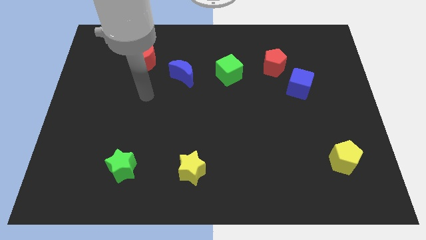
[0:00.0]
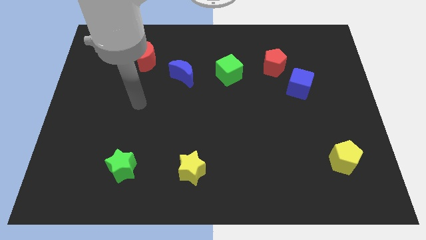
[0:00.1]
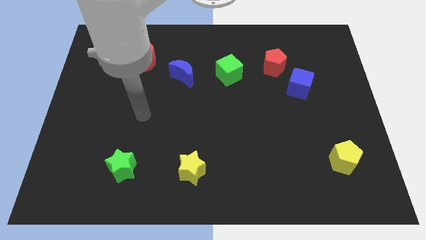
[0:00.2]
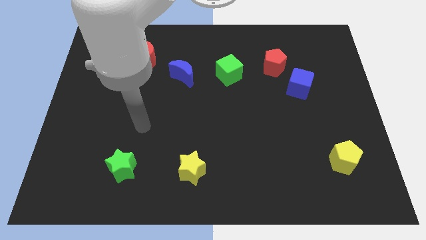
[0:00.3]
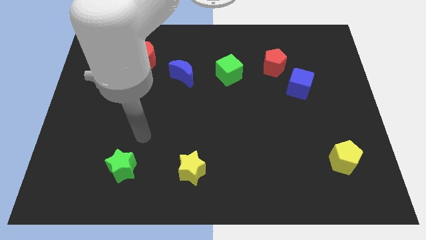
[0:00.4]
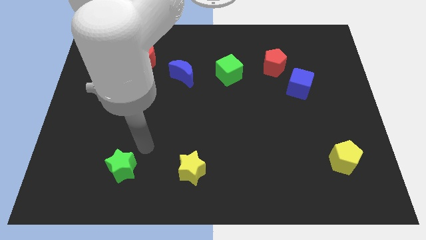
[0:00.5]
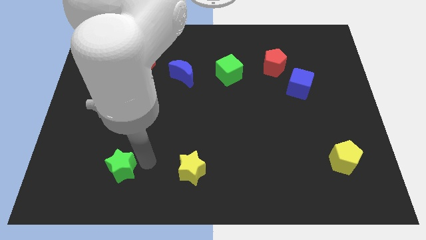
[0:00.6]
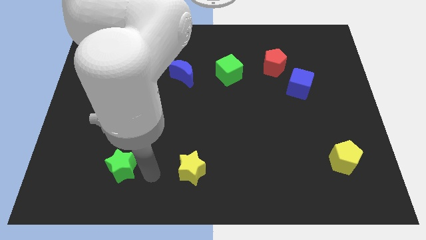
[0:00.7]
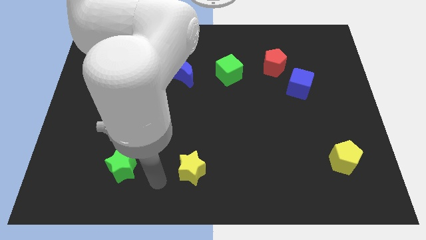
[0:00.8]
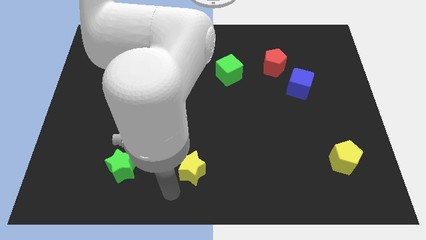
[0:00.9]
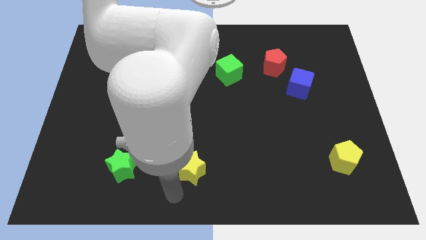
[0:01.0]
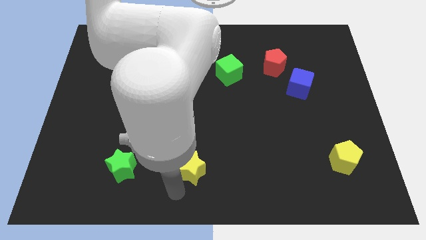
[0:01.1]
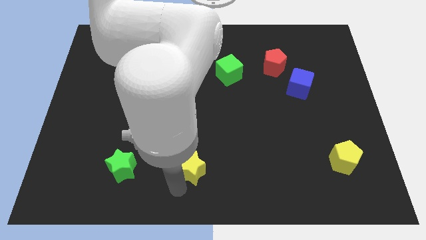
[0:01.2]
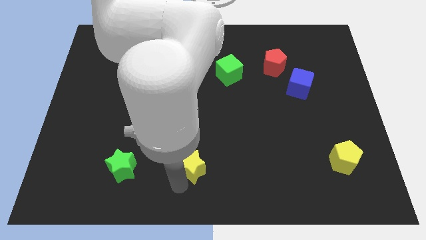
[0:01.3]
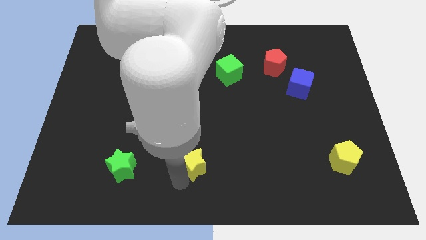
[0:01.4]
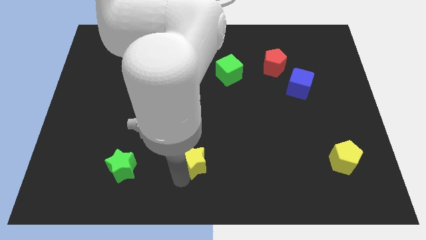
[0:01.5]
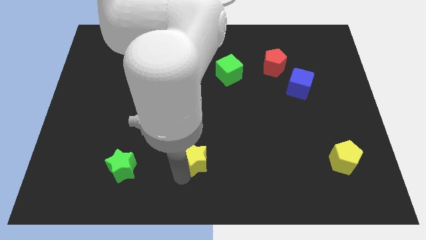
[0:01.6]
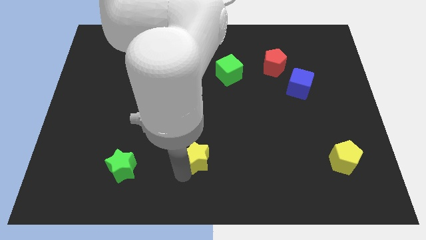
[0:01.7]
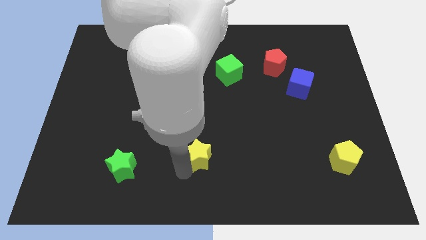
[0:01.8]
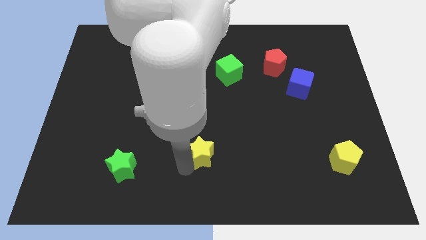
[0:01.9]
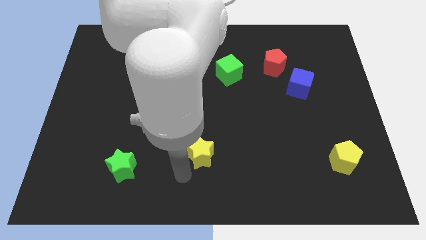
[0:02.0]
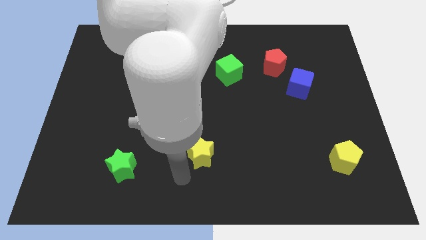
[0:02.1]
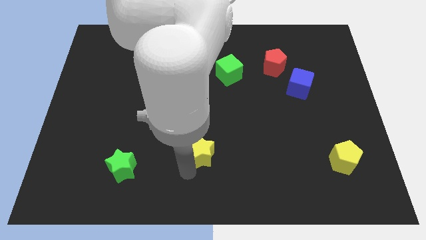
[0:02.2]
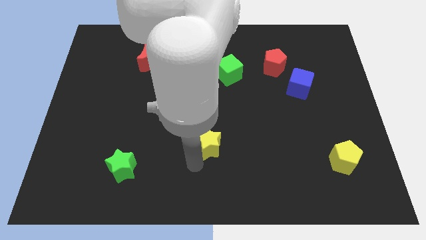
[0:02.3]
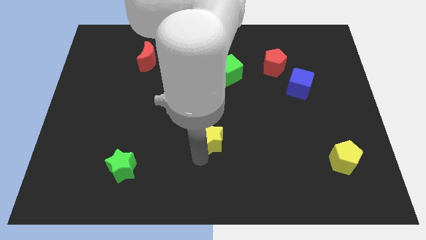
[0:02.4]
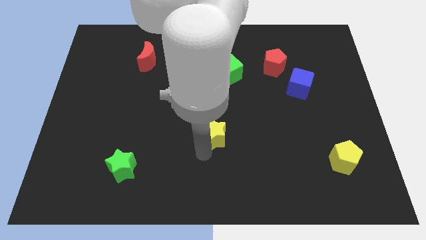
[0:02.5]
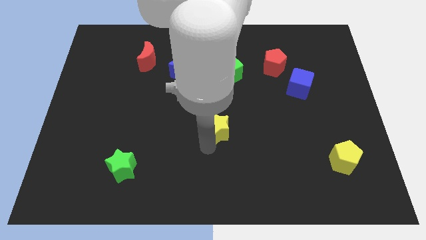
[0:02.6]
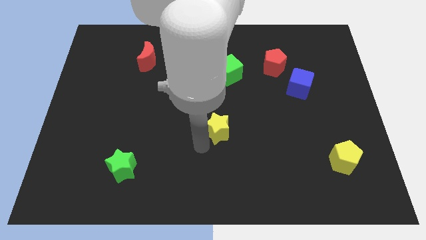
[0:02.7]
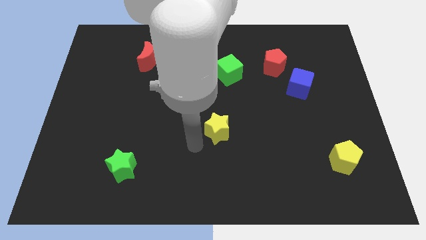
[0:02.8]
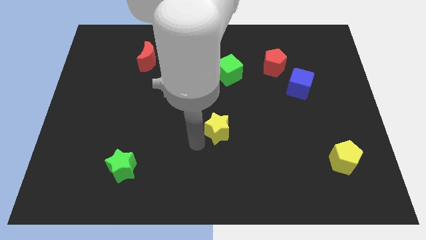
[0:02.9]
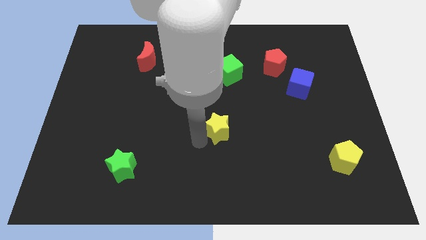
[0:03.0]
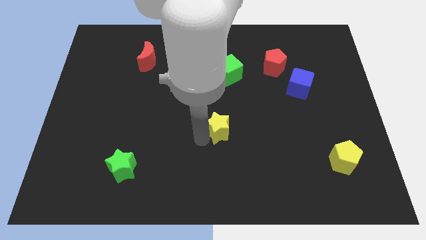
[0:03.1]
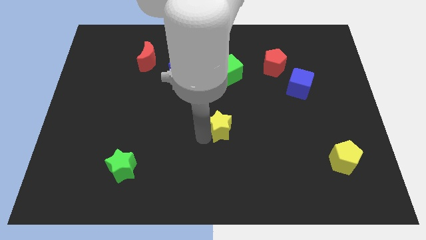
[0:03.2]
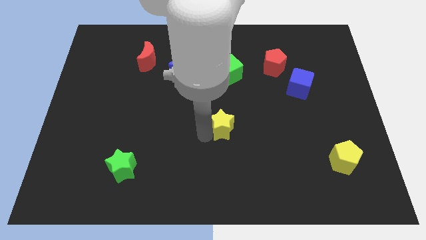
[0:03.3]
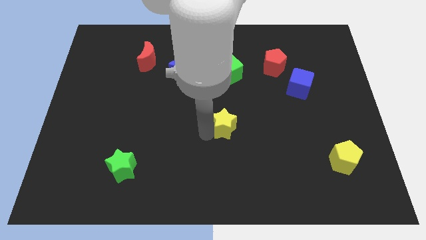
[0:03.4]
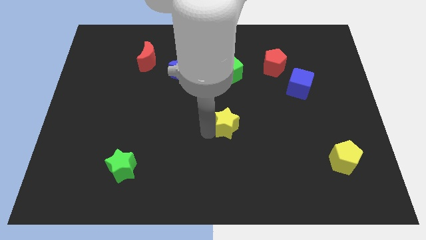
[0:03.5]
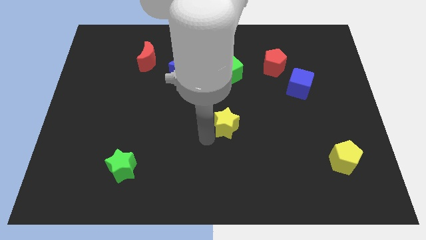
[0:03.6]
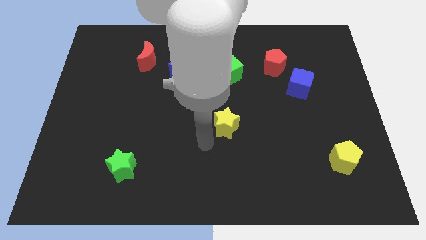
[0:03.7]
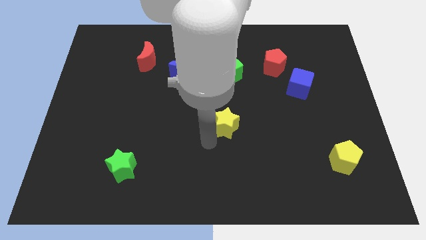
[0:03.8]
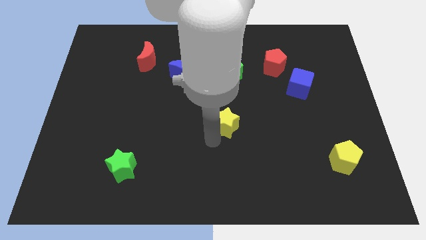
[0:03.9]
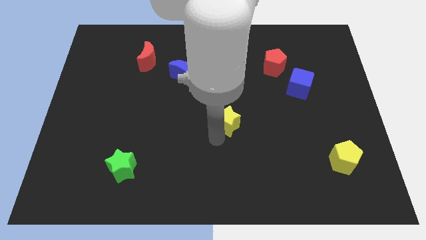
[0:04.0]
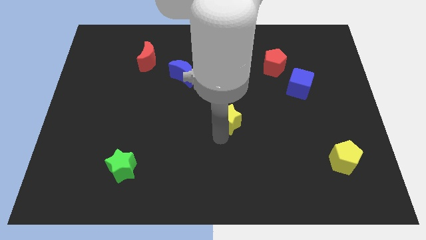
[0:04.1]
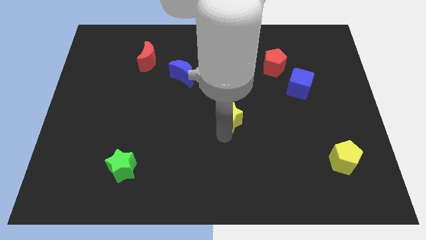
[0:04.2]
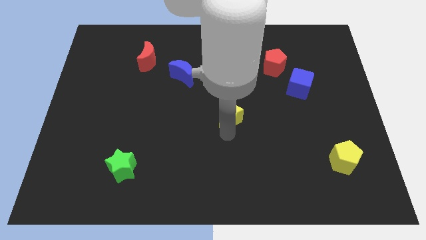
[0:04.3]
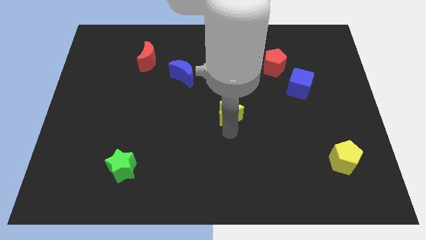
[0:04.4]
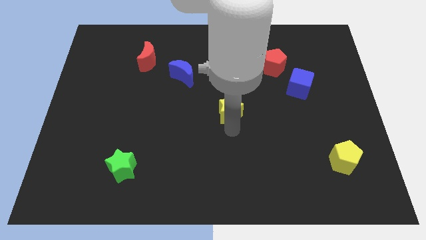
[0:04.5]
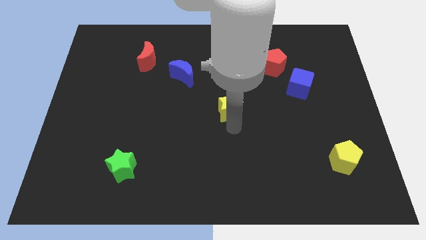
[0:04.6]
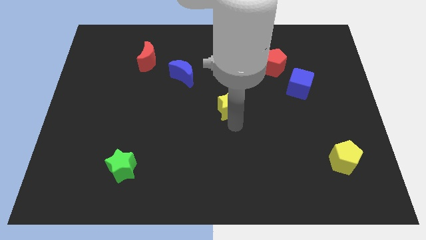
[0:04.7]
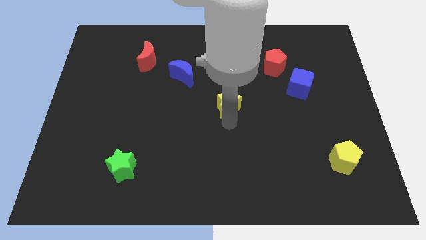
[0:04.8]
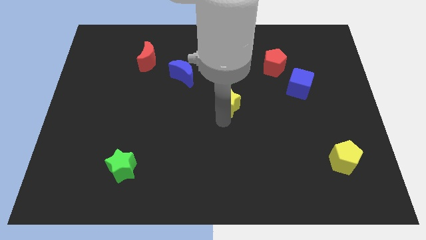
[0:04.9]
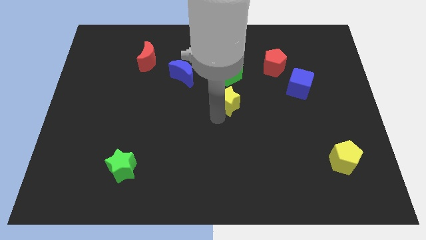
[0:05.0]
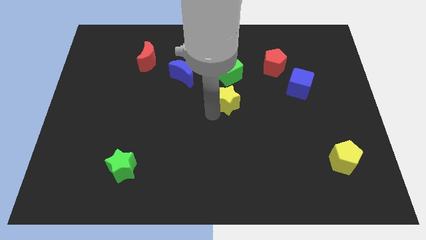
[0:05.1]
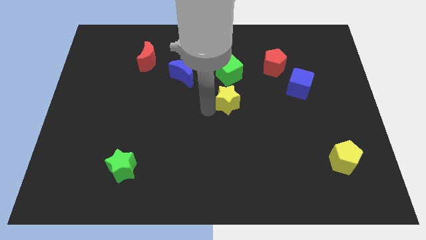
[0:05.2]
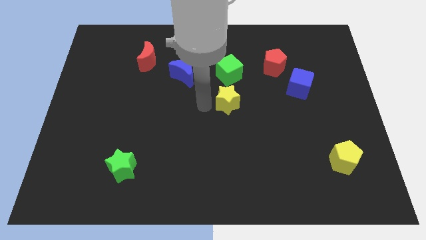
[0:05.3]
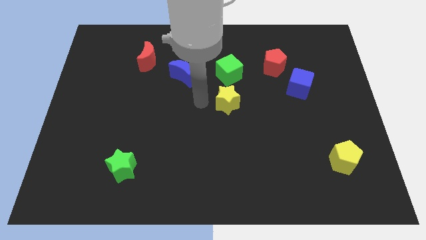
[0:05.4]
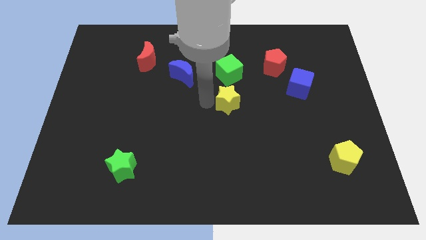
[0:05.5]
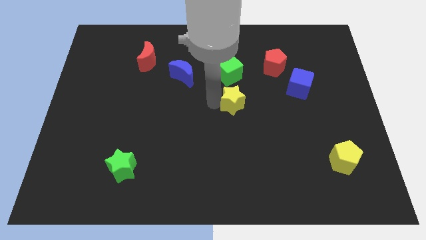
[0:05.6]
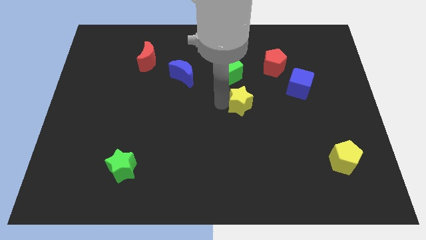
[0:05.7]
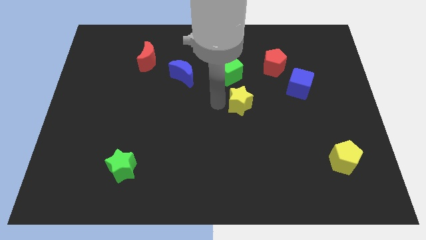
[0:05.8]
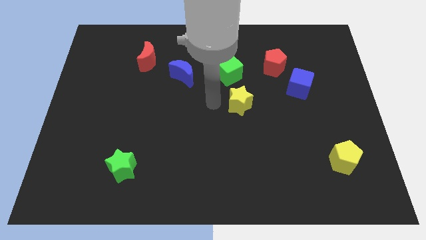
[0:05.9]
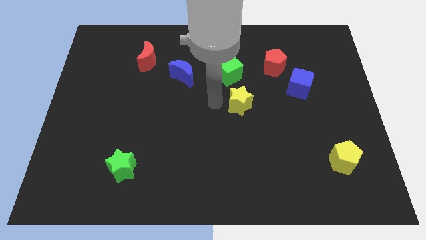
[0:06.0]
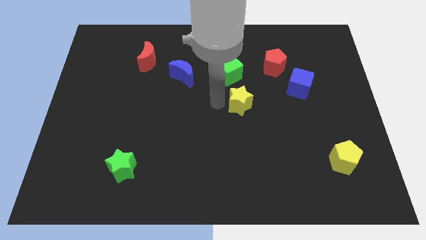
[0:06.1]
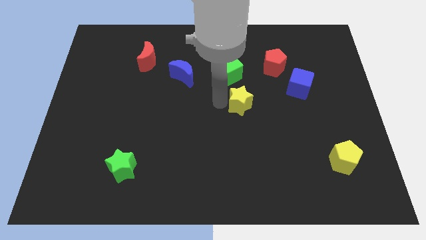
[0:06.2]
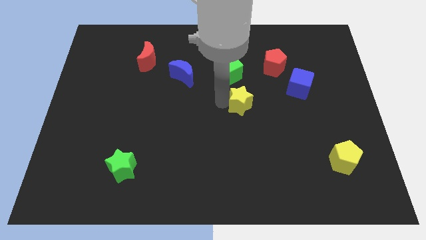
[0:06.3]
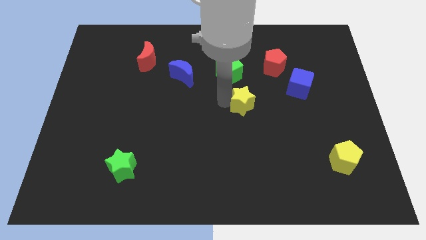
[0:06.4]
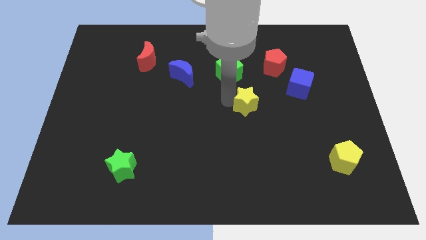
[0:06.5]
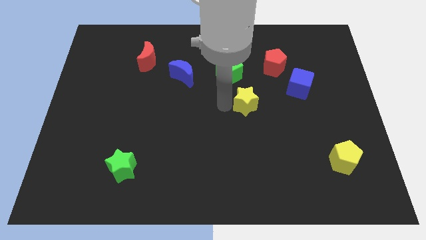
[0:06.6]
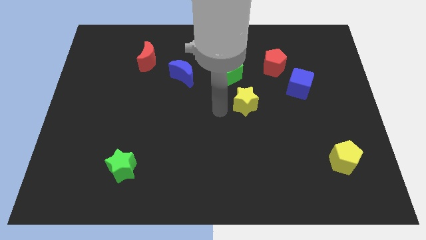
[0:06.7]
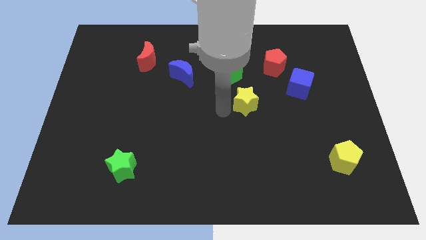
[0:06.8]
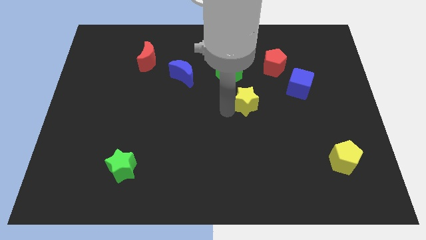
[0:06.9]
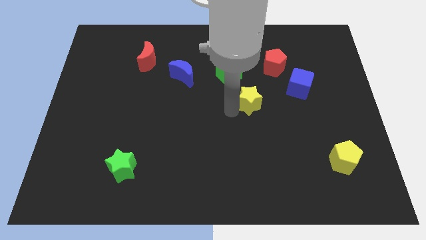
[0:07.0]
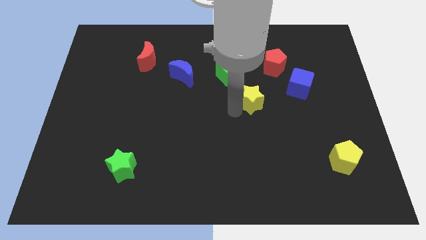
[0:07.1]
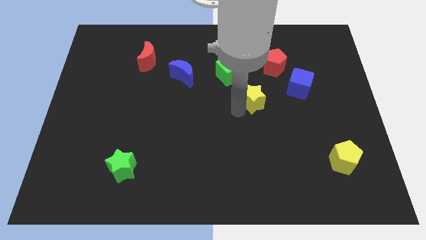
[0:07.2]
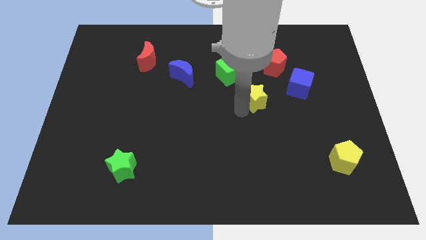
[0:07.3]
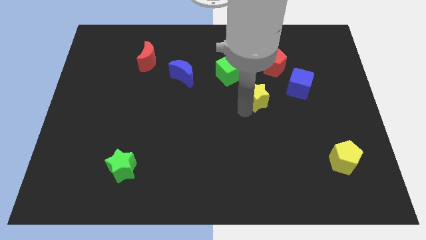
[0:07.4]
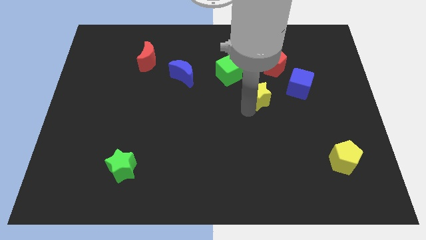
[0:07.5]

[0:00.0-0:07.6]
put the yellow star to the bottom of the red pentagon
